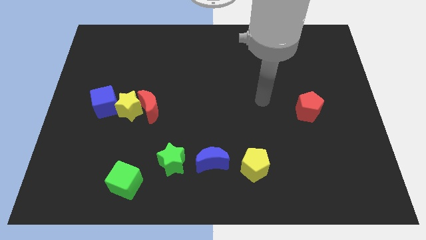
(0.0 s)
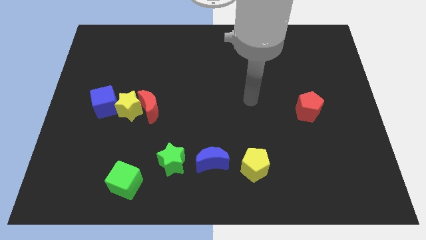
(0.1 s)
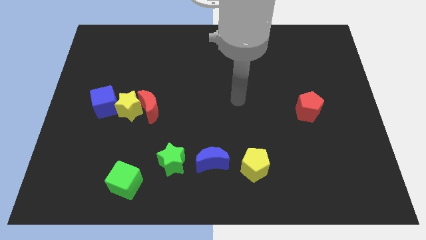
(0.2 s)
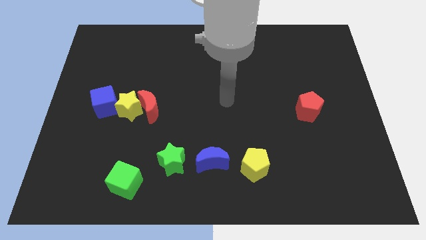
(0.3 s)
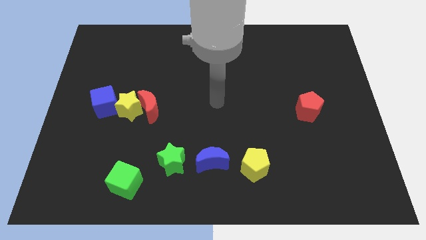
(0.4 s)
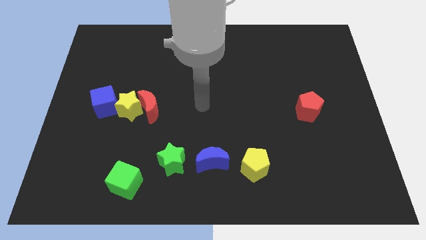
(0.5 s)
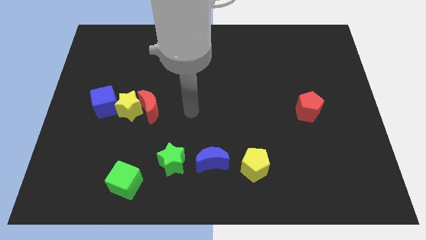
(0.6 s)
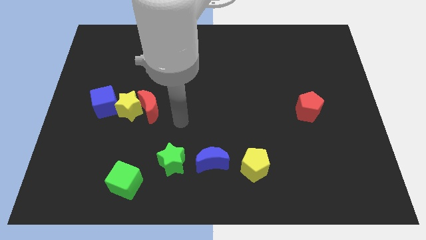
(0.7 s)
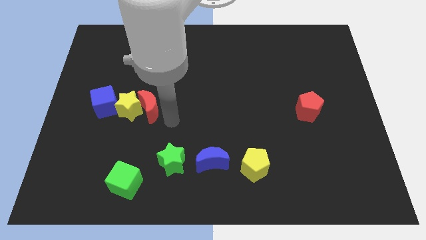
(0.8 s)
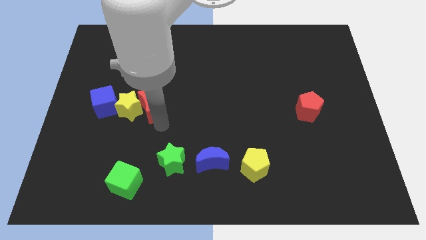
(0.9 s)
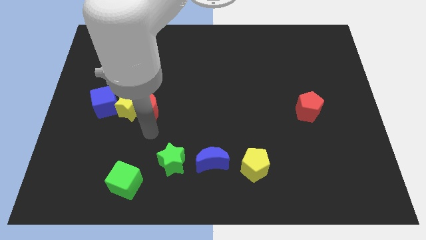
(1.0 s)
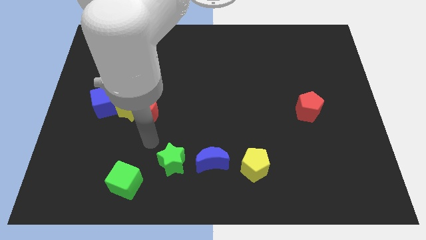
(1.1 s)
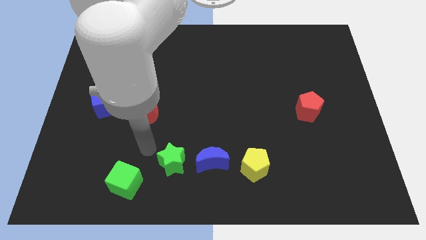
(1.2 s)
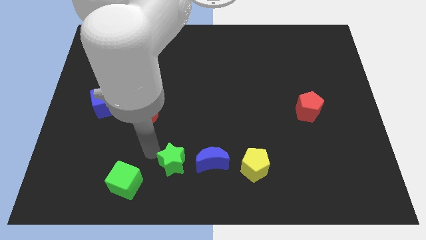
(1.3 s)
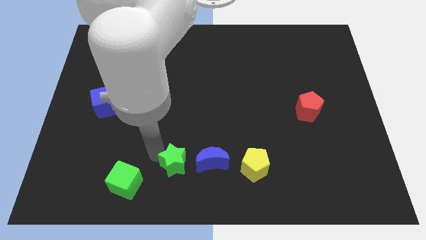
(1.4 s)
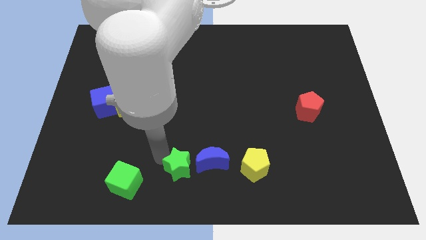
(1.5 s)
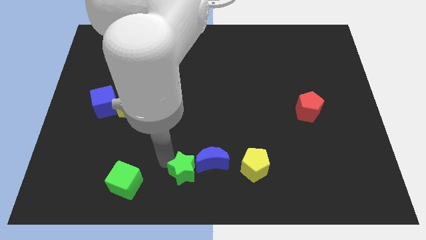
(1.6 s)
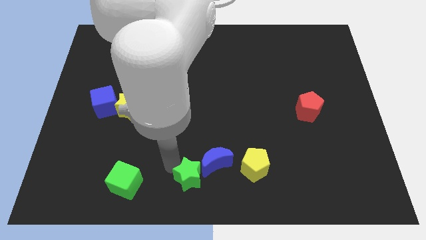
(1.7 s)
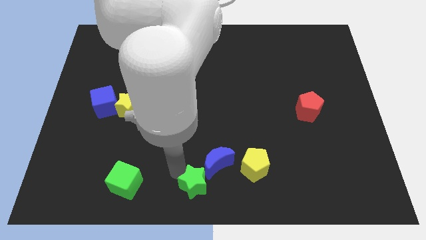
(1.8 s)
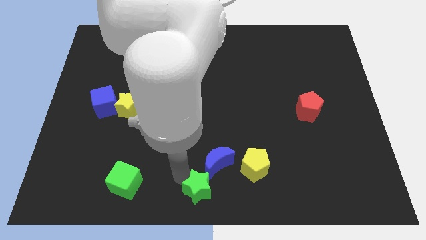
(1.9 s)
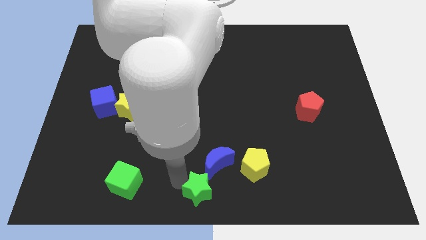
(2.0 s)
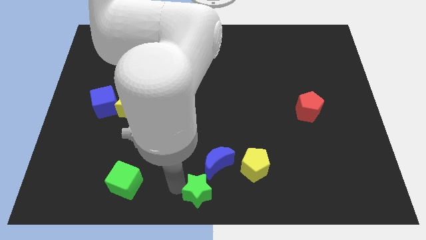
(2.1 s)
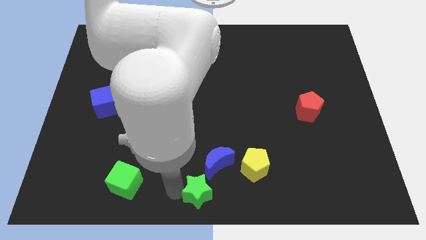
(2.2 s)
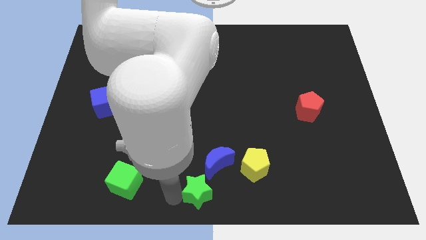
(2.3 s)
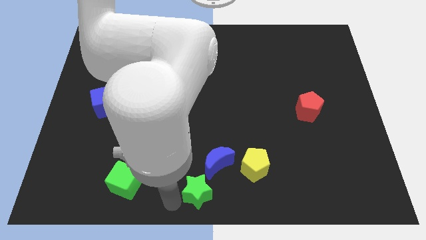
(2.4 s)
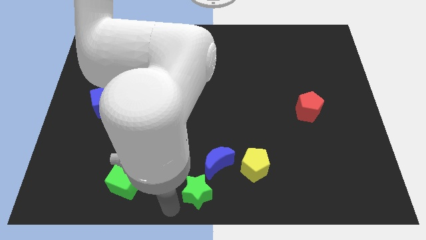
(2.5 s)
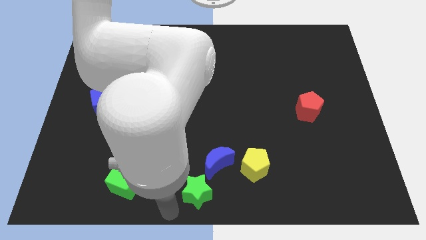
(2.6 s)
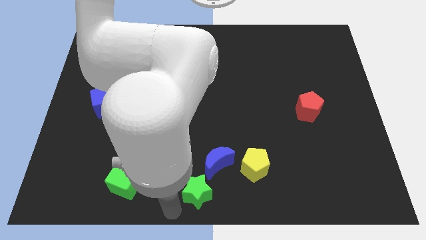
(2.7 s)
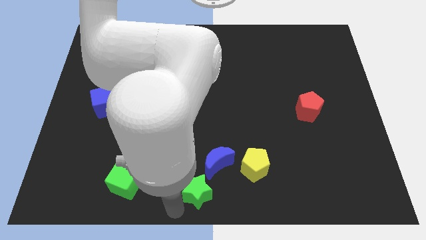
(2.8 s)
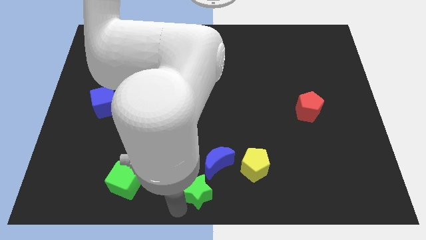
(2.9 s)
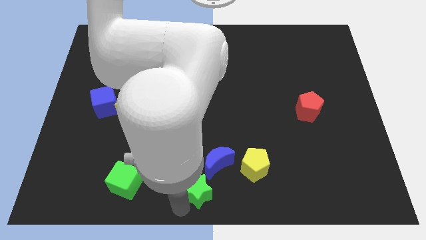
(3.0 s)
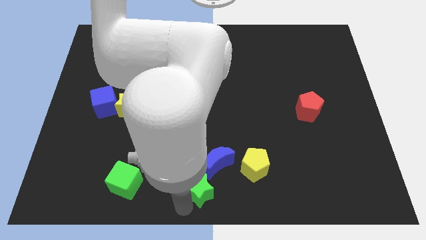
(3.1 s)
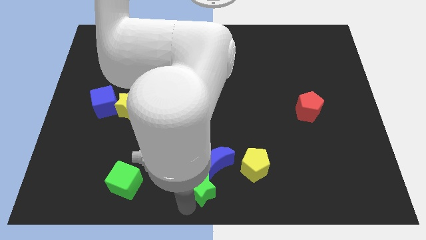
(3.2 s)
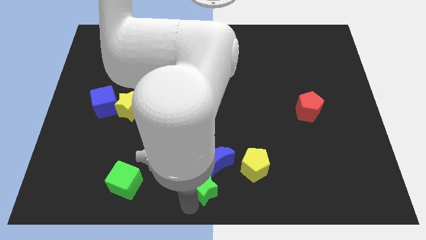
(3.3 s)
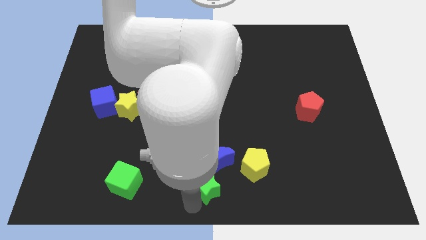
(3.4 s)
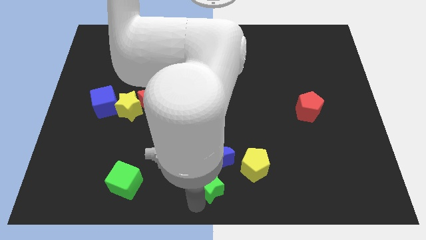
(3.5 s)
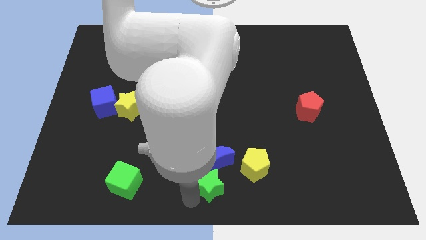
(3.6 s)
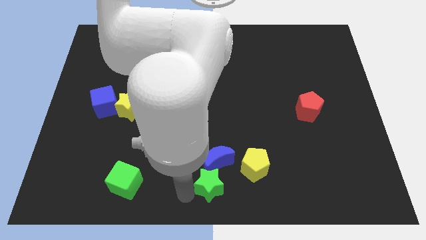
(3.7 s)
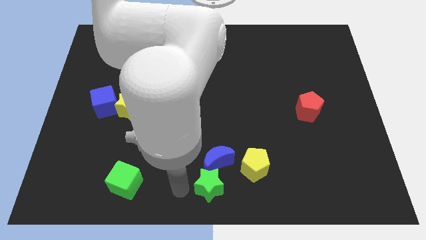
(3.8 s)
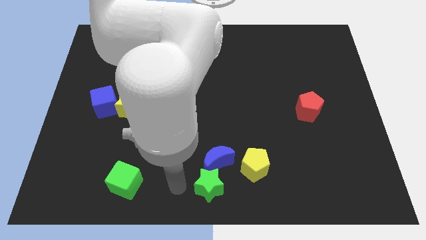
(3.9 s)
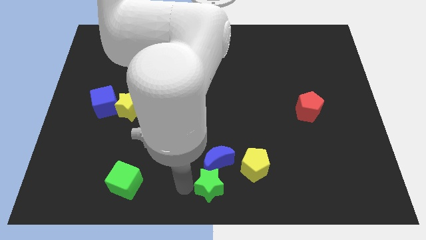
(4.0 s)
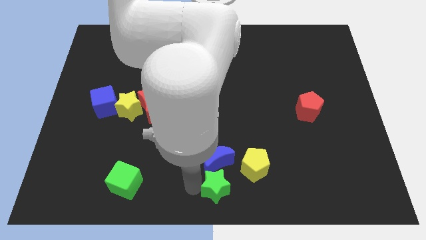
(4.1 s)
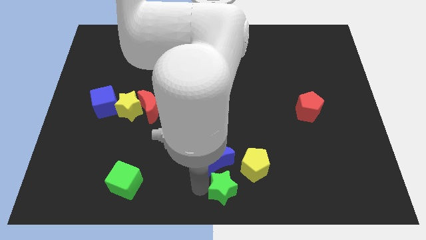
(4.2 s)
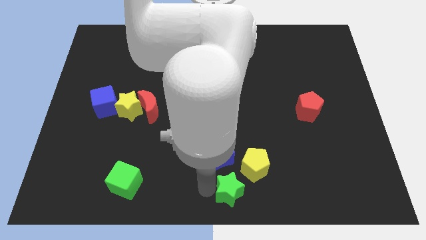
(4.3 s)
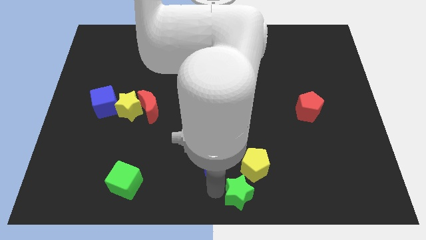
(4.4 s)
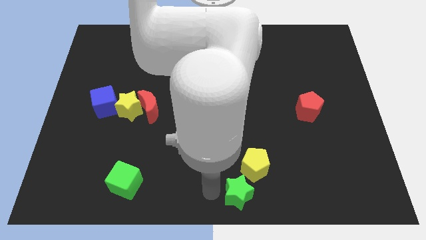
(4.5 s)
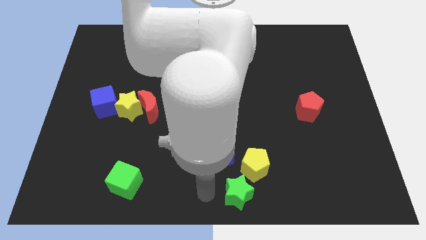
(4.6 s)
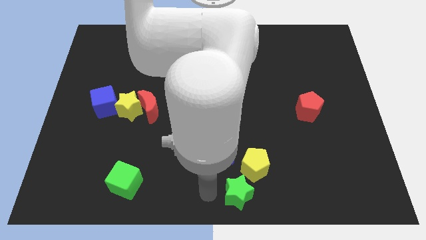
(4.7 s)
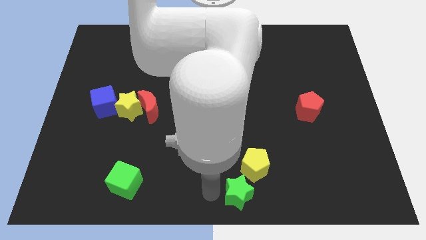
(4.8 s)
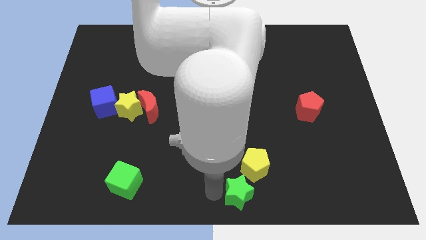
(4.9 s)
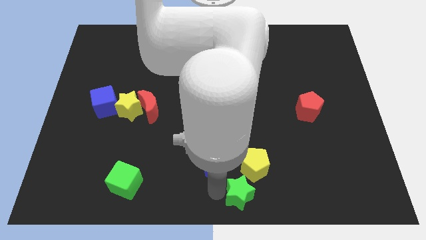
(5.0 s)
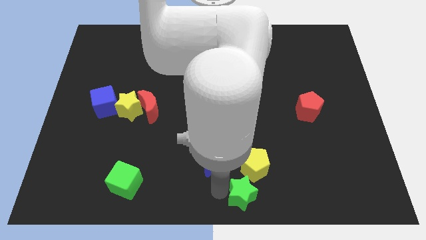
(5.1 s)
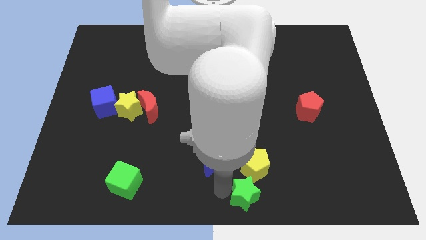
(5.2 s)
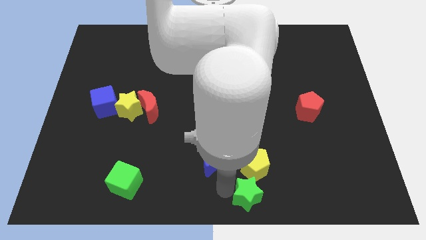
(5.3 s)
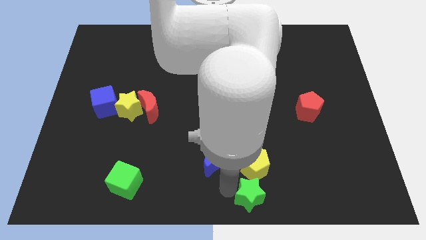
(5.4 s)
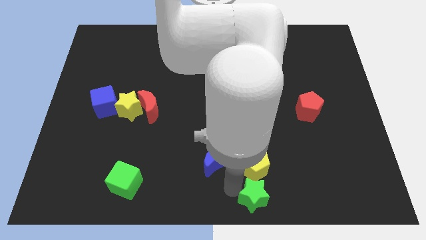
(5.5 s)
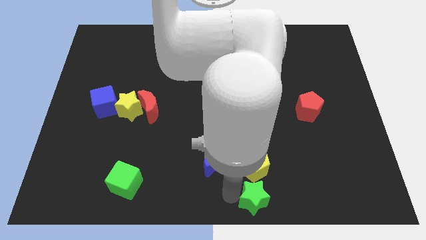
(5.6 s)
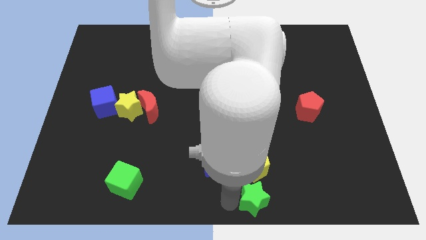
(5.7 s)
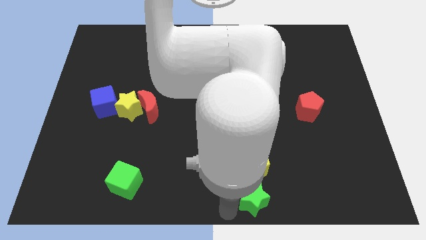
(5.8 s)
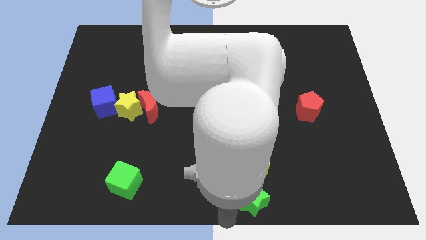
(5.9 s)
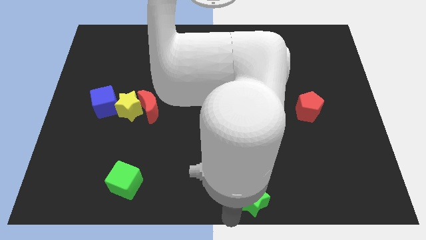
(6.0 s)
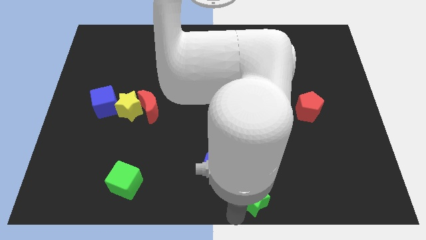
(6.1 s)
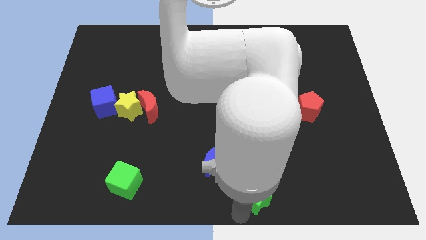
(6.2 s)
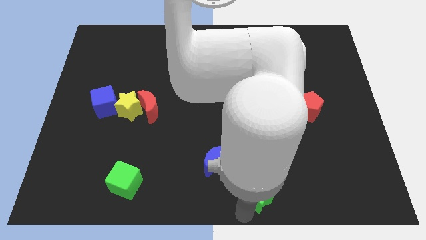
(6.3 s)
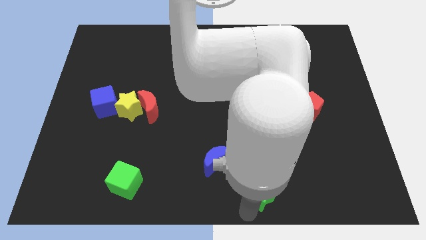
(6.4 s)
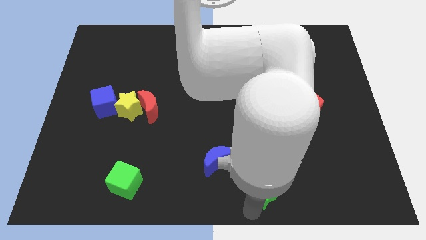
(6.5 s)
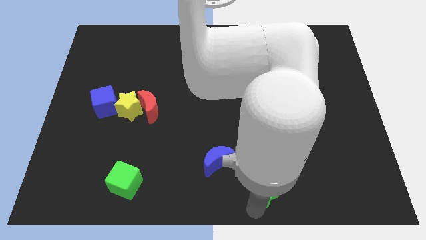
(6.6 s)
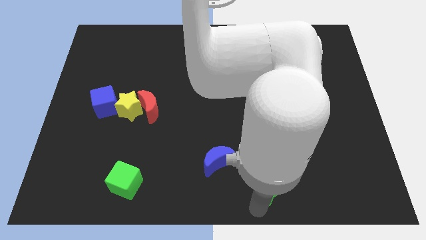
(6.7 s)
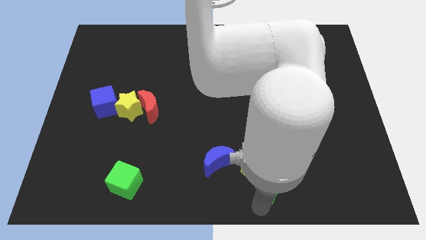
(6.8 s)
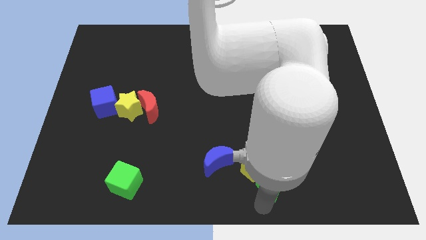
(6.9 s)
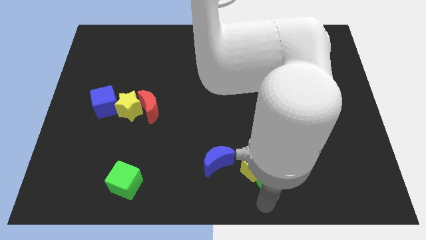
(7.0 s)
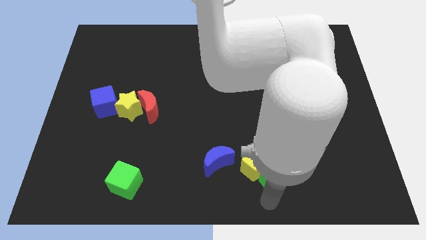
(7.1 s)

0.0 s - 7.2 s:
push the green star right

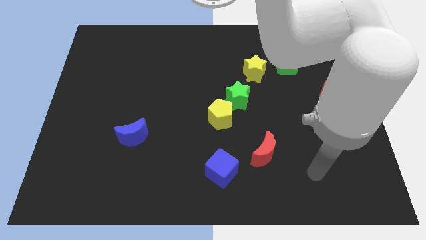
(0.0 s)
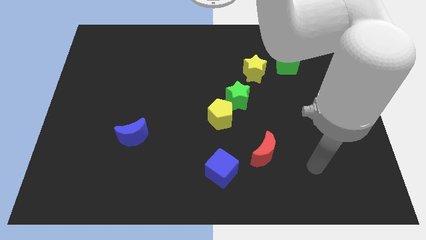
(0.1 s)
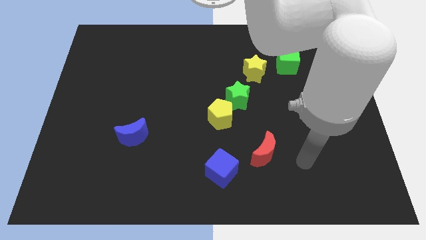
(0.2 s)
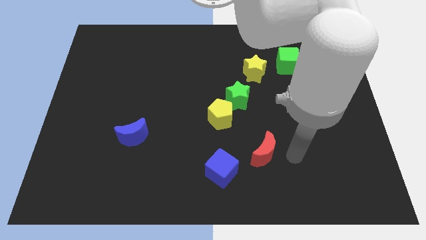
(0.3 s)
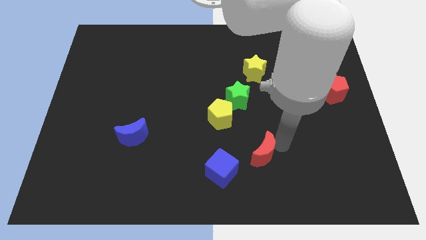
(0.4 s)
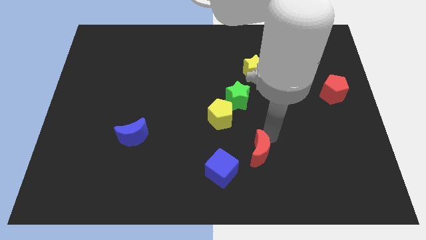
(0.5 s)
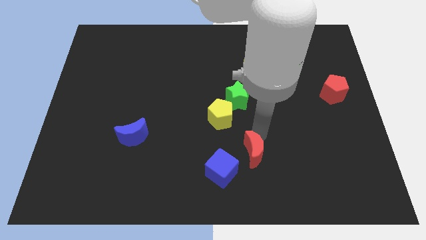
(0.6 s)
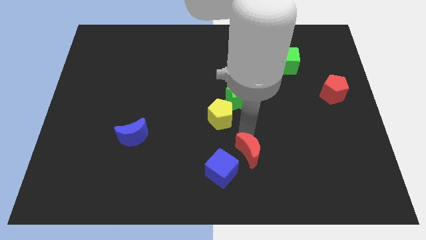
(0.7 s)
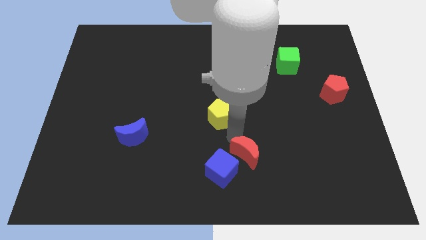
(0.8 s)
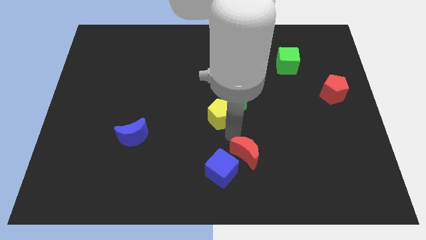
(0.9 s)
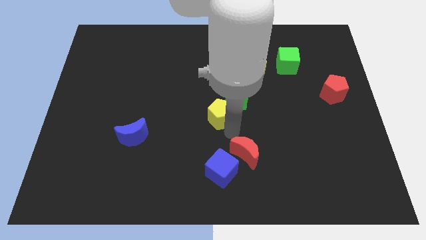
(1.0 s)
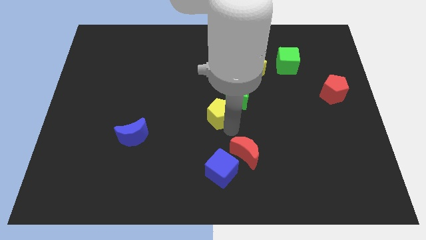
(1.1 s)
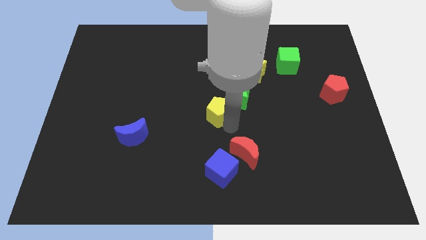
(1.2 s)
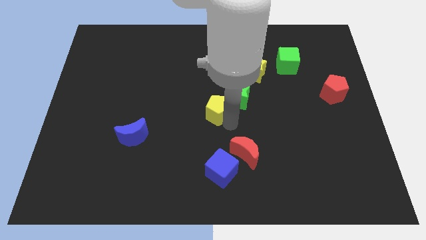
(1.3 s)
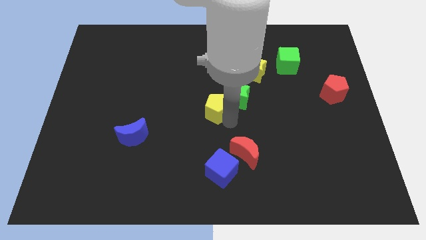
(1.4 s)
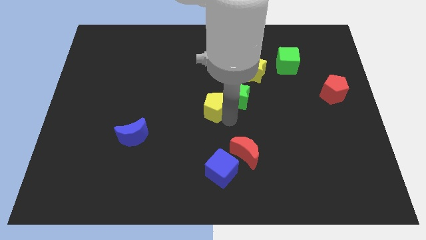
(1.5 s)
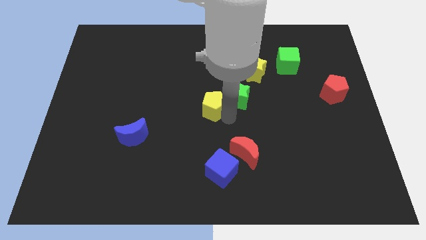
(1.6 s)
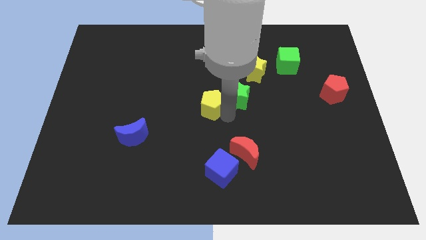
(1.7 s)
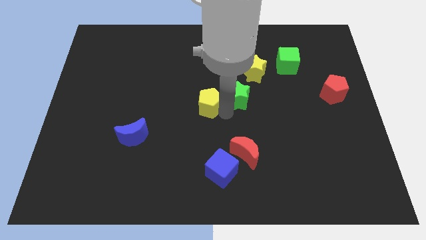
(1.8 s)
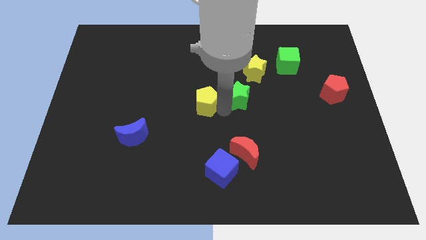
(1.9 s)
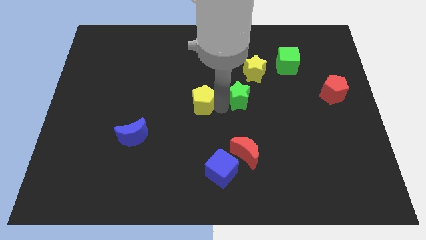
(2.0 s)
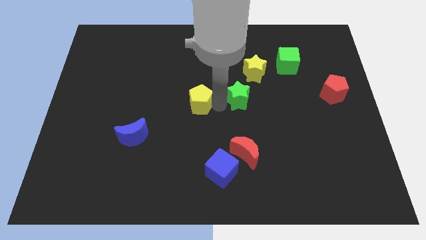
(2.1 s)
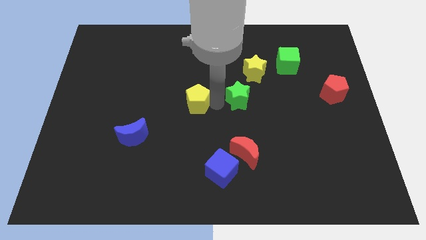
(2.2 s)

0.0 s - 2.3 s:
move the yellow pentagon diagonally up and left a bit
